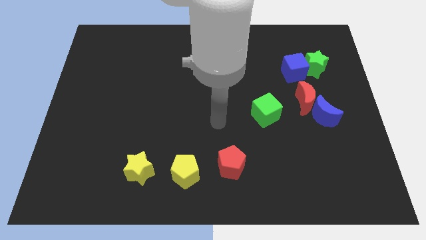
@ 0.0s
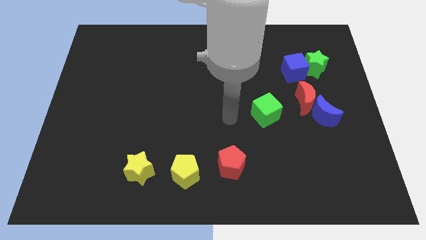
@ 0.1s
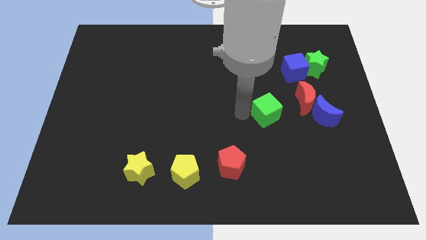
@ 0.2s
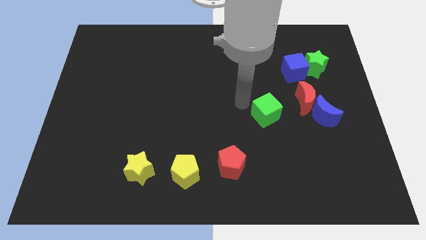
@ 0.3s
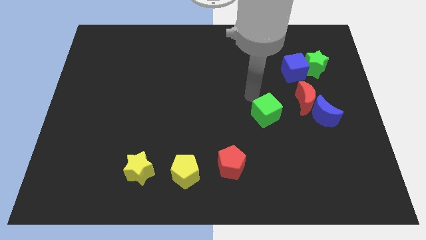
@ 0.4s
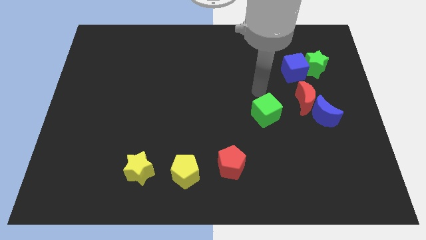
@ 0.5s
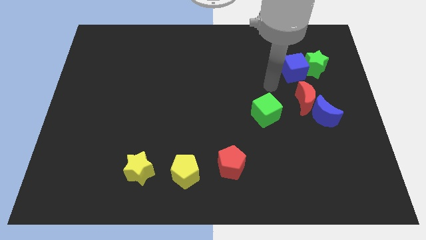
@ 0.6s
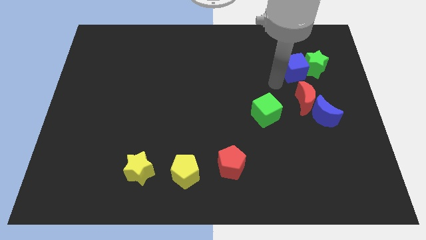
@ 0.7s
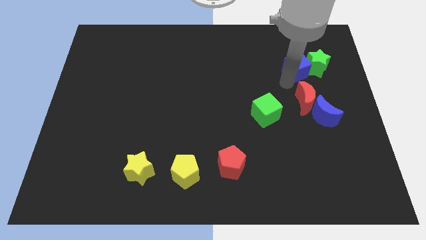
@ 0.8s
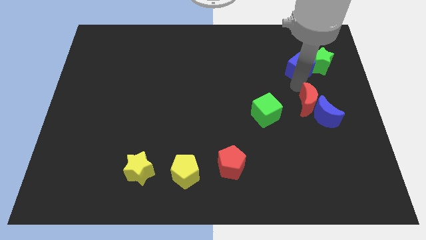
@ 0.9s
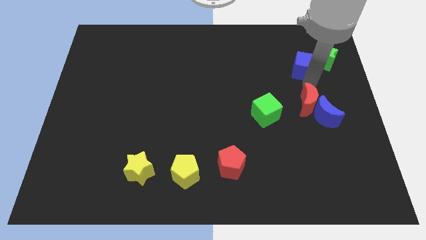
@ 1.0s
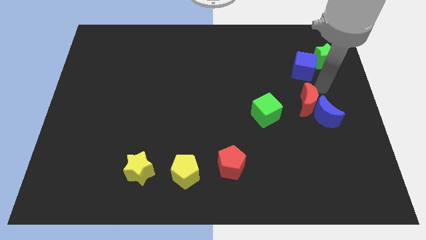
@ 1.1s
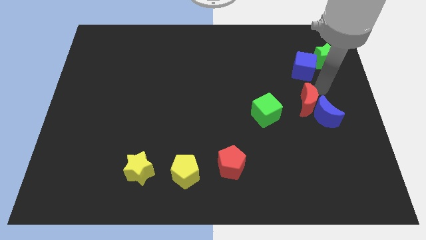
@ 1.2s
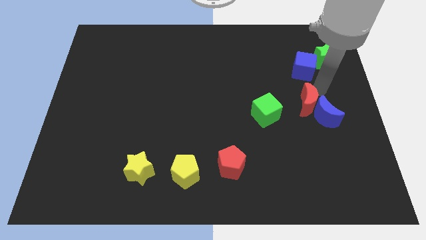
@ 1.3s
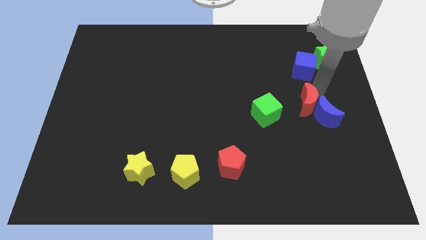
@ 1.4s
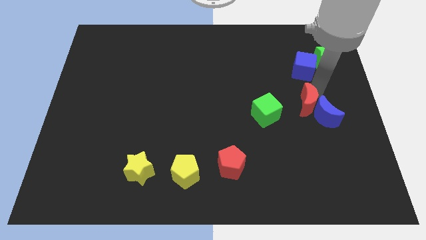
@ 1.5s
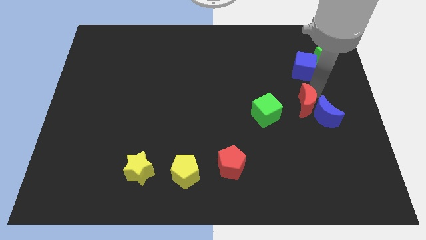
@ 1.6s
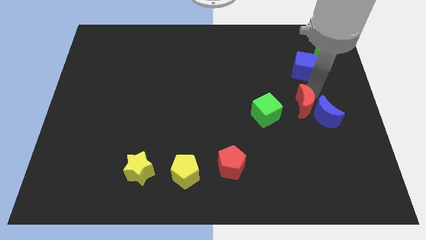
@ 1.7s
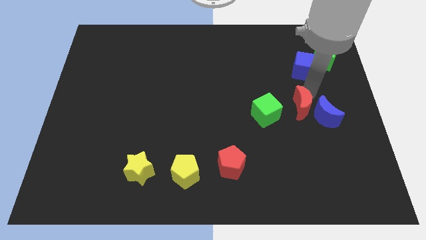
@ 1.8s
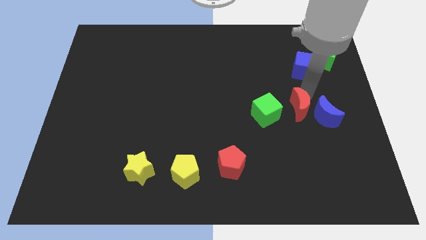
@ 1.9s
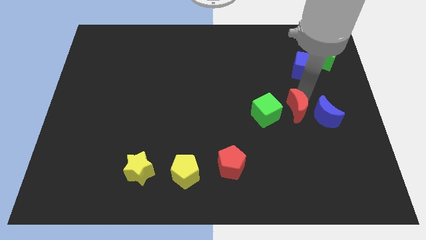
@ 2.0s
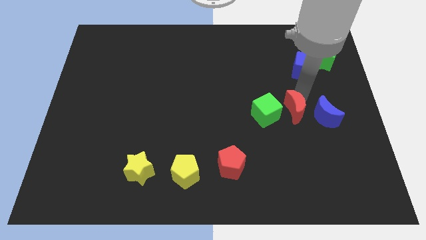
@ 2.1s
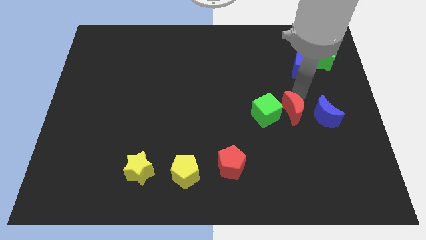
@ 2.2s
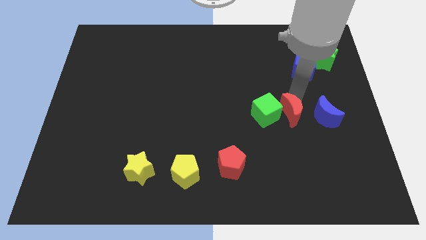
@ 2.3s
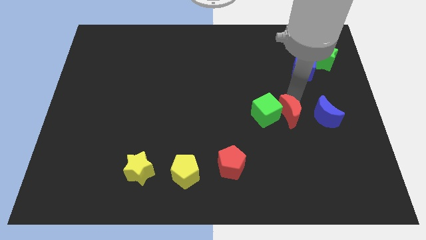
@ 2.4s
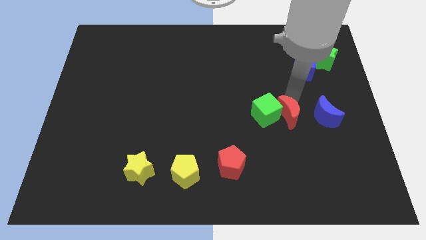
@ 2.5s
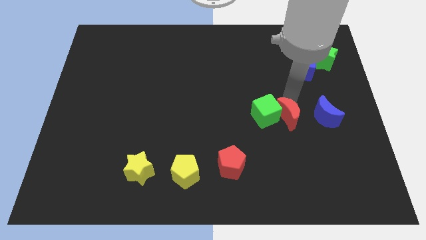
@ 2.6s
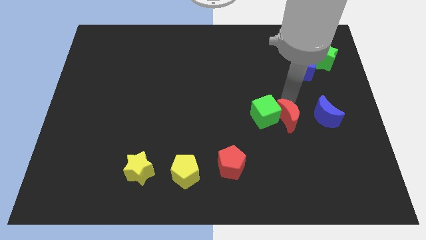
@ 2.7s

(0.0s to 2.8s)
slightly slide the red moon down and then to the left

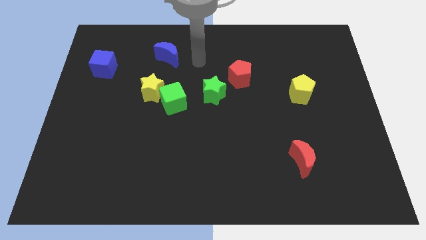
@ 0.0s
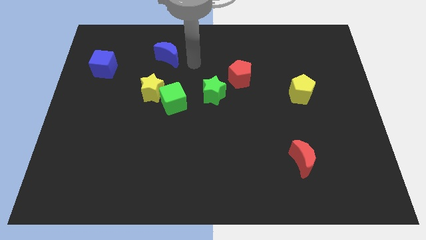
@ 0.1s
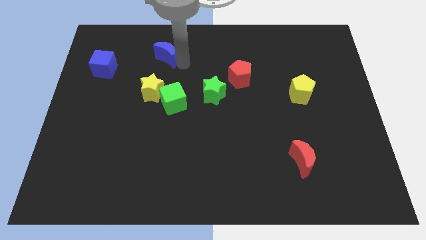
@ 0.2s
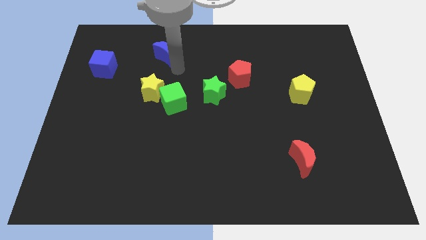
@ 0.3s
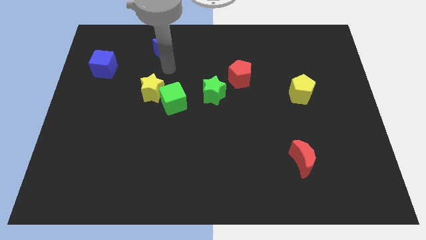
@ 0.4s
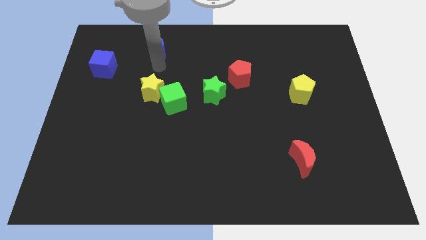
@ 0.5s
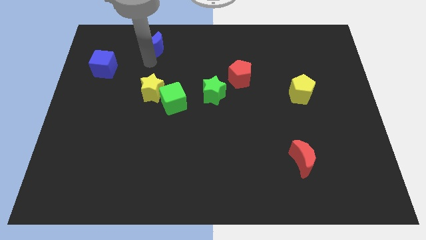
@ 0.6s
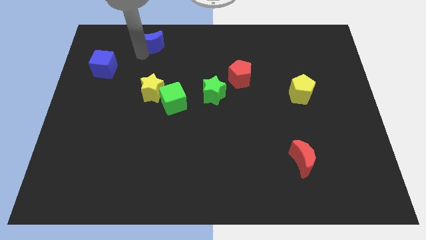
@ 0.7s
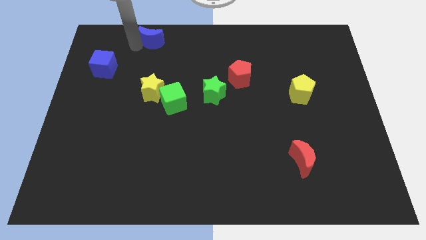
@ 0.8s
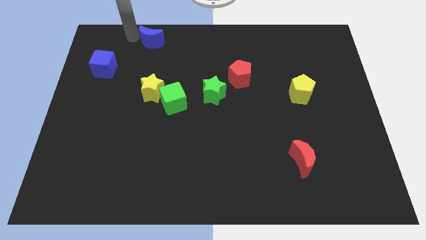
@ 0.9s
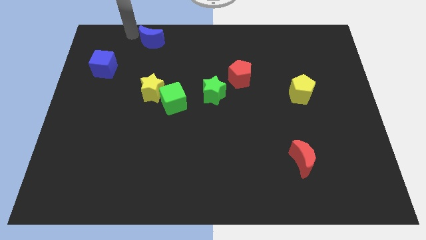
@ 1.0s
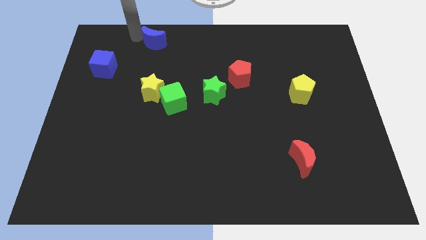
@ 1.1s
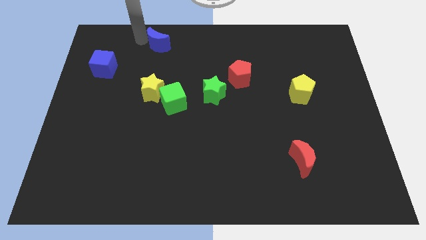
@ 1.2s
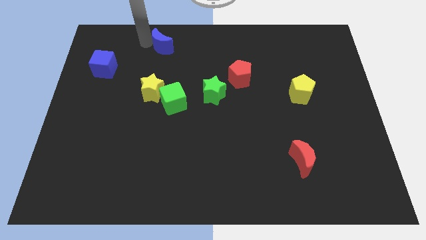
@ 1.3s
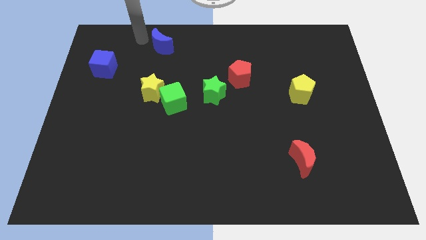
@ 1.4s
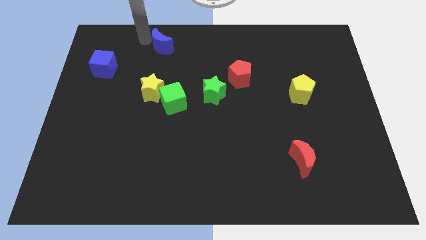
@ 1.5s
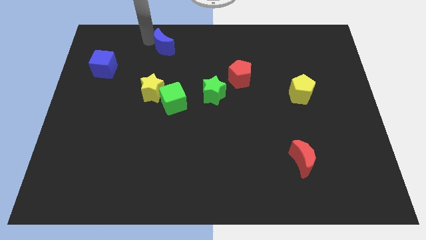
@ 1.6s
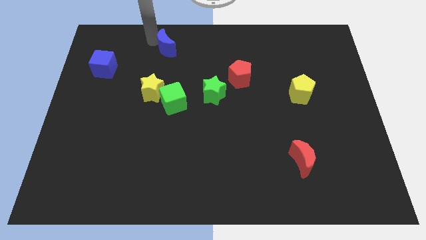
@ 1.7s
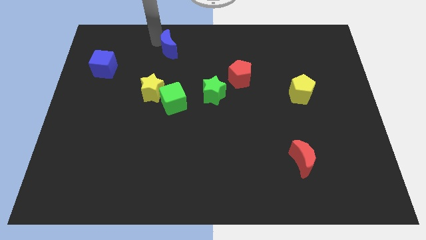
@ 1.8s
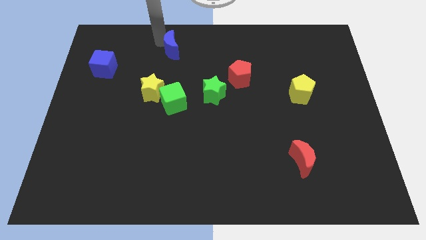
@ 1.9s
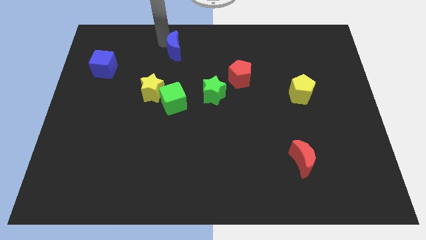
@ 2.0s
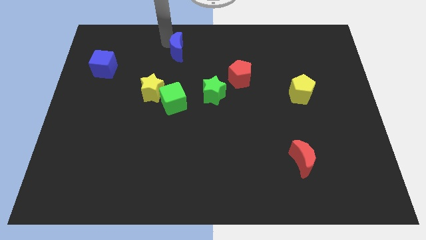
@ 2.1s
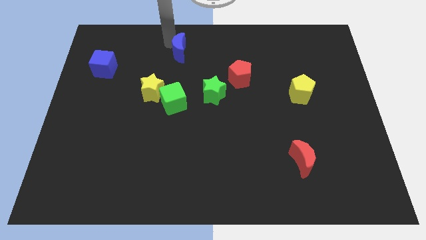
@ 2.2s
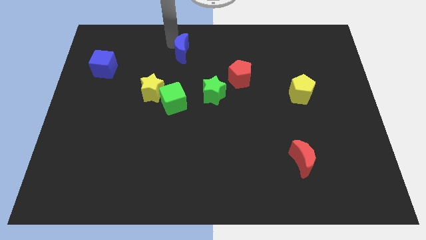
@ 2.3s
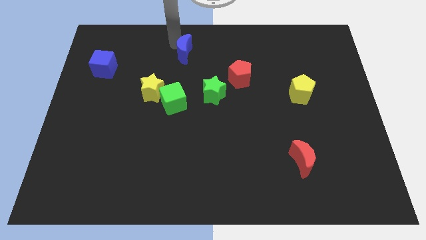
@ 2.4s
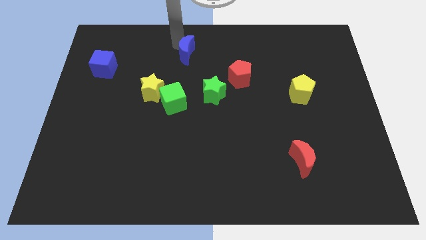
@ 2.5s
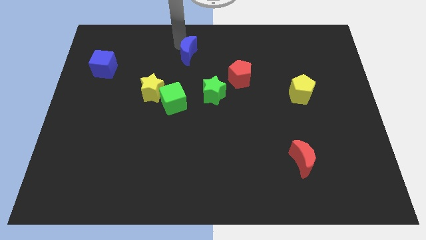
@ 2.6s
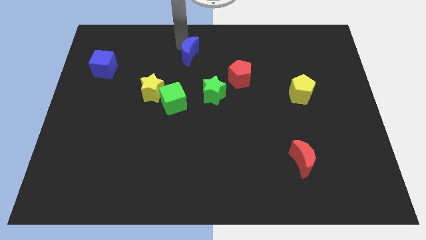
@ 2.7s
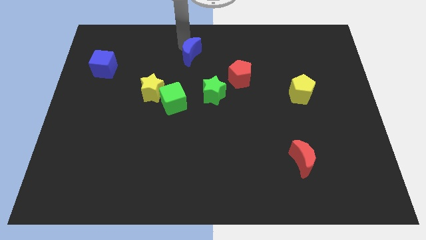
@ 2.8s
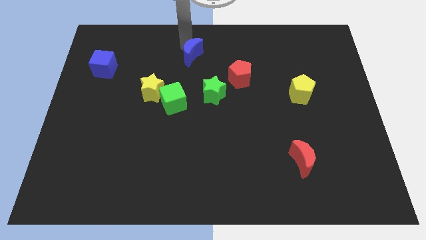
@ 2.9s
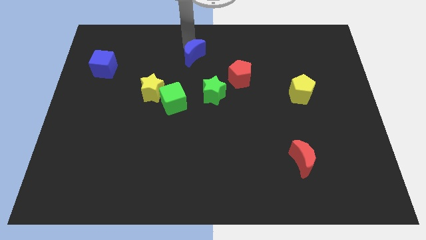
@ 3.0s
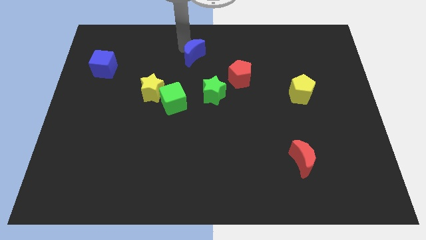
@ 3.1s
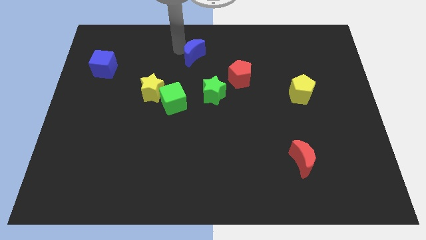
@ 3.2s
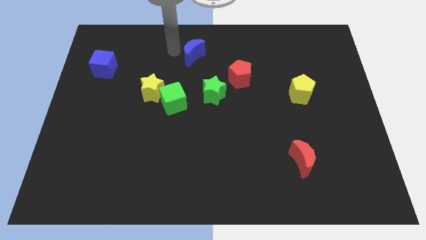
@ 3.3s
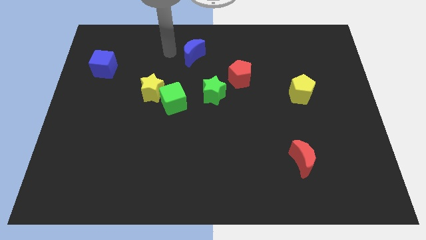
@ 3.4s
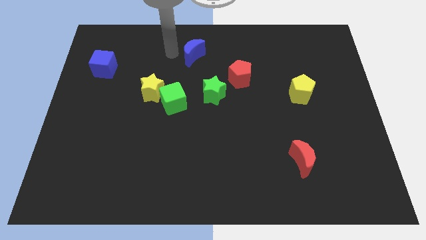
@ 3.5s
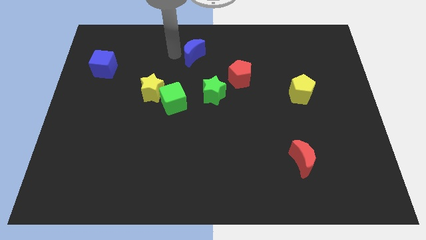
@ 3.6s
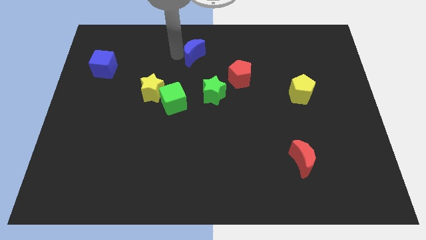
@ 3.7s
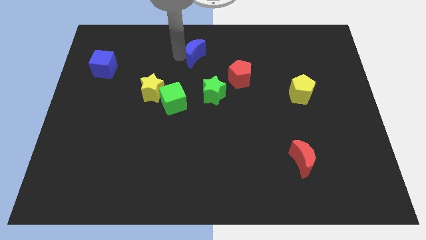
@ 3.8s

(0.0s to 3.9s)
slide the blue moon a little bit to the right

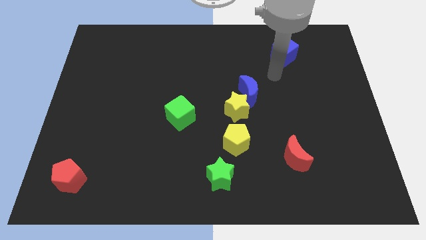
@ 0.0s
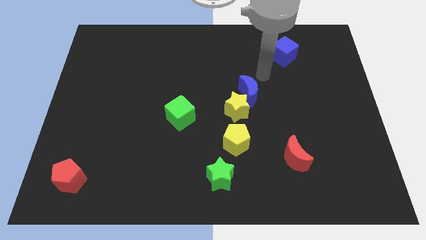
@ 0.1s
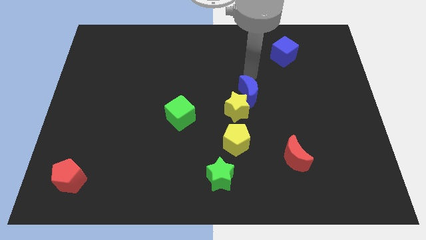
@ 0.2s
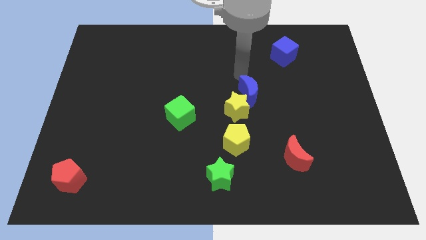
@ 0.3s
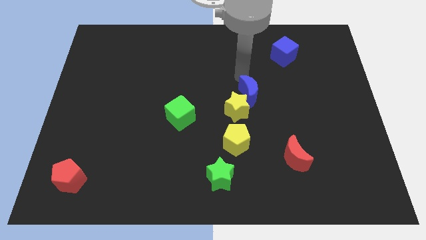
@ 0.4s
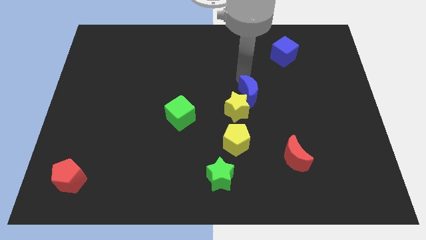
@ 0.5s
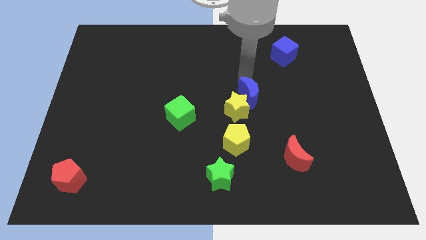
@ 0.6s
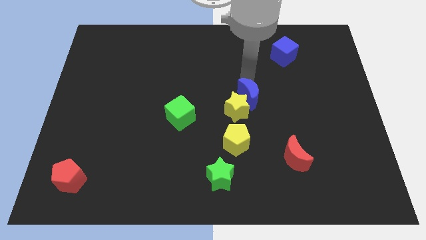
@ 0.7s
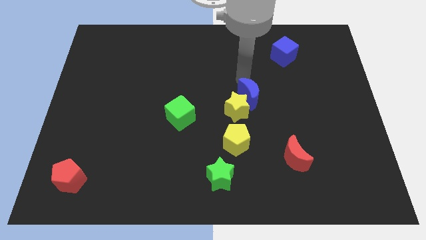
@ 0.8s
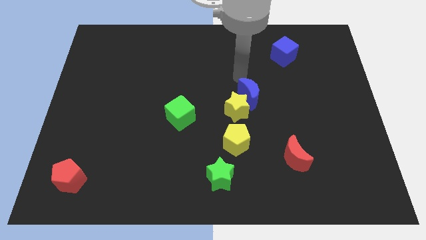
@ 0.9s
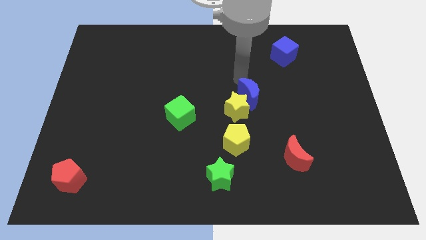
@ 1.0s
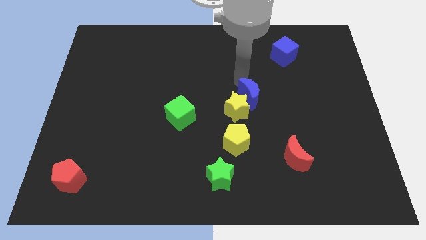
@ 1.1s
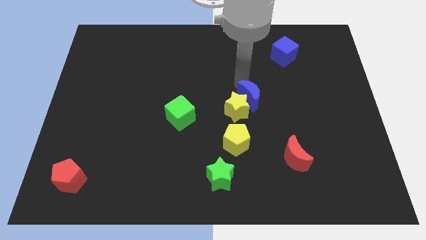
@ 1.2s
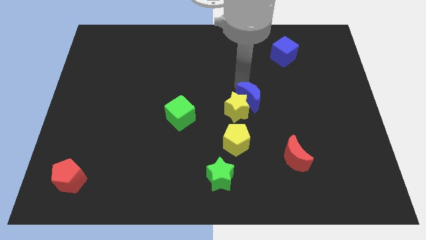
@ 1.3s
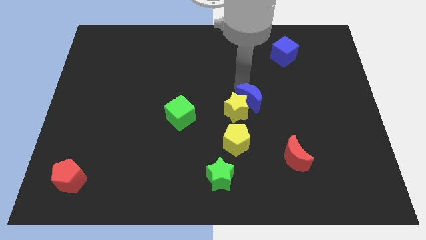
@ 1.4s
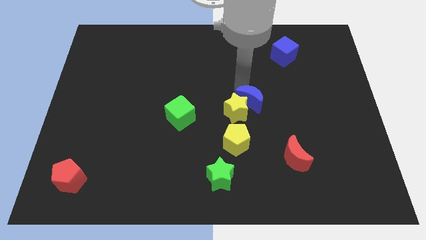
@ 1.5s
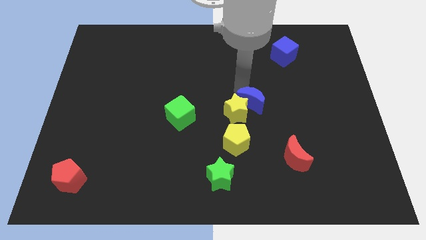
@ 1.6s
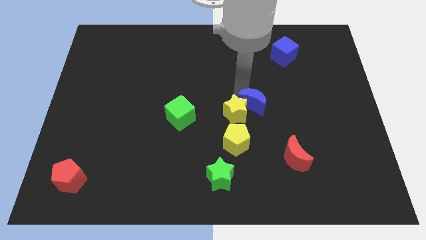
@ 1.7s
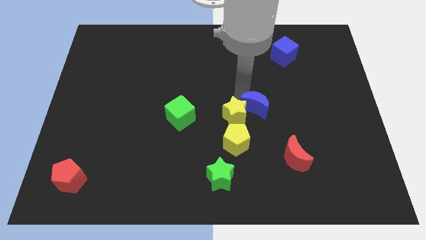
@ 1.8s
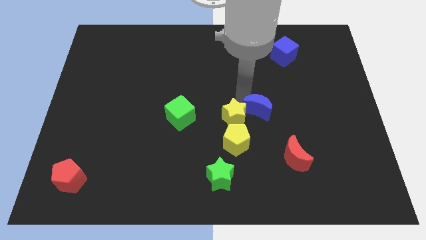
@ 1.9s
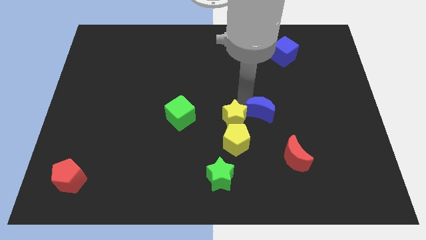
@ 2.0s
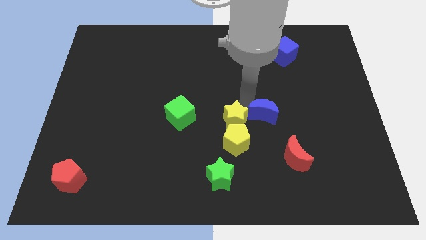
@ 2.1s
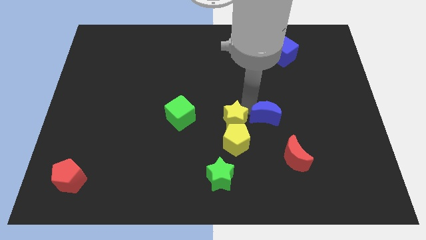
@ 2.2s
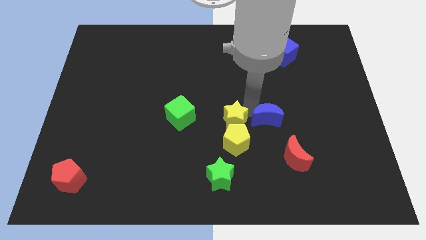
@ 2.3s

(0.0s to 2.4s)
push the blue moon downwards slightly
